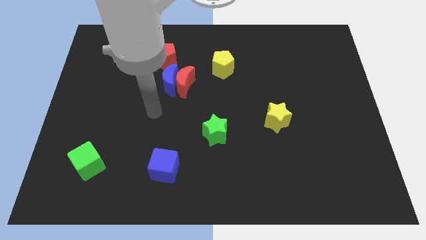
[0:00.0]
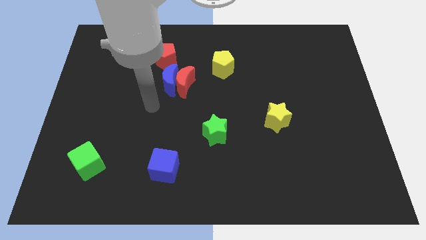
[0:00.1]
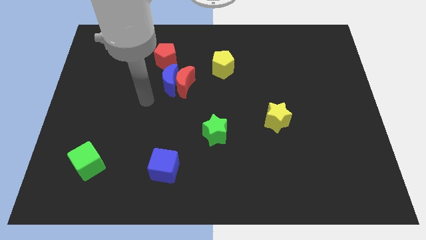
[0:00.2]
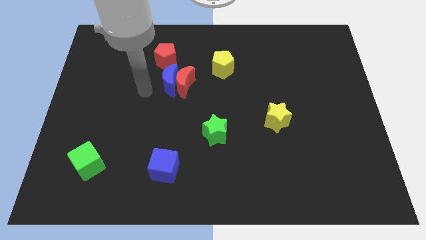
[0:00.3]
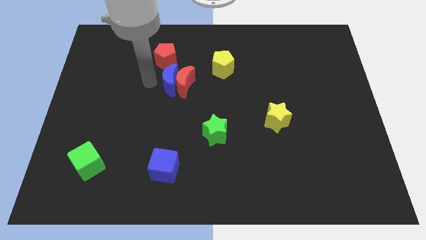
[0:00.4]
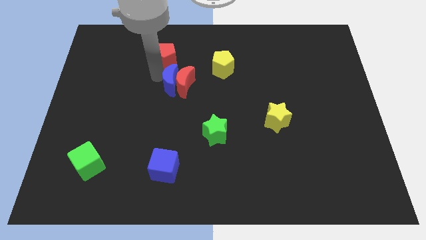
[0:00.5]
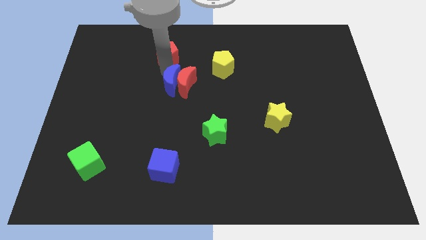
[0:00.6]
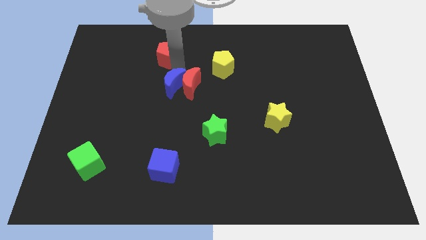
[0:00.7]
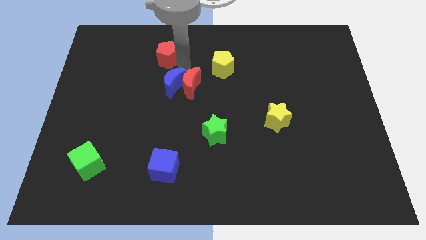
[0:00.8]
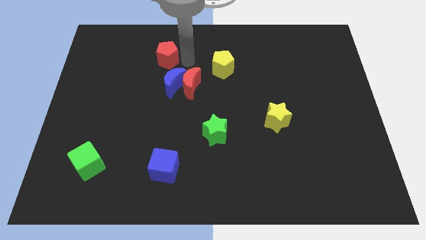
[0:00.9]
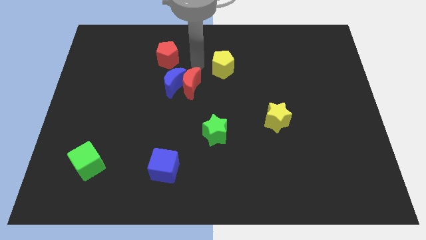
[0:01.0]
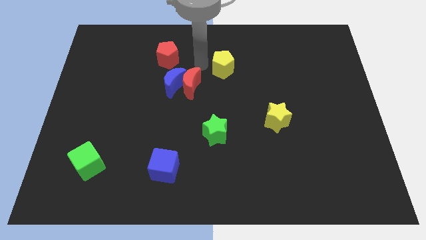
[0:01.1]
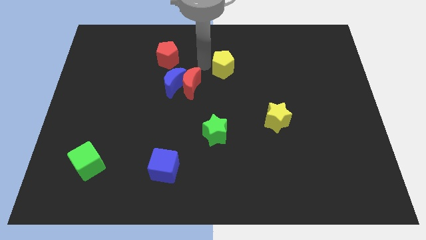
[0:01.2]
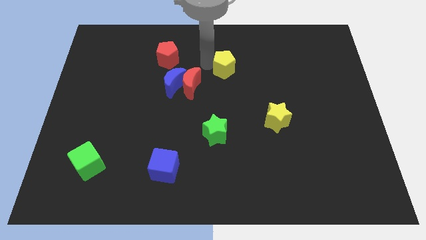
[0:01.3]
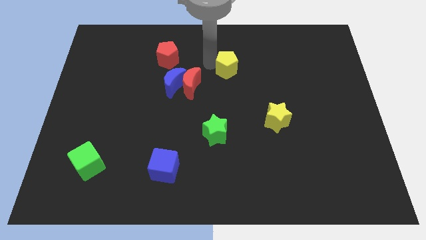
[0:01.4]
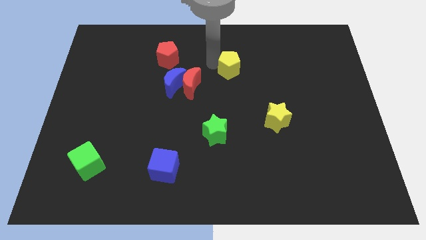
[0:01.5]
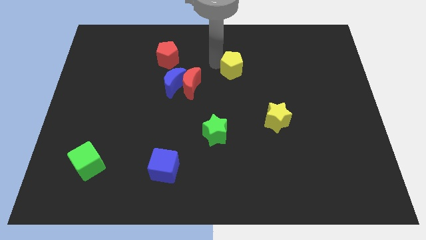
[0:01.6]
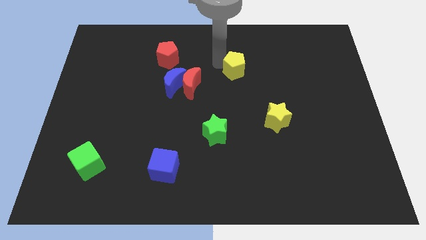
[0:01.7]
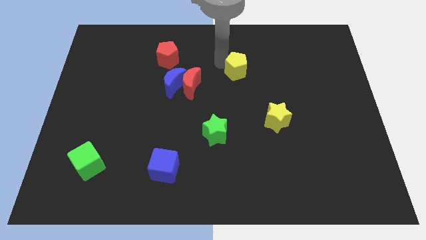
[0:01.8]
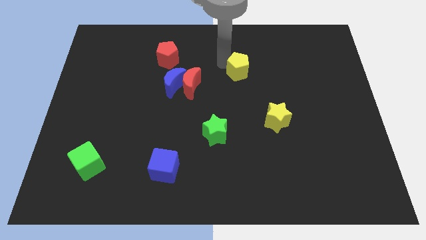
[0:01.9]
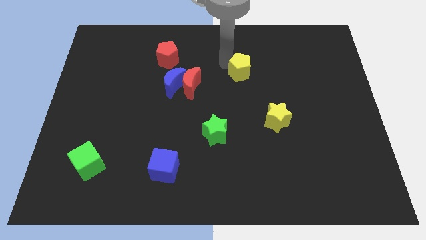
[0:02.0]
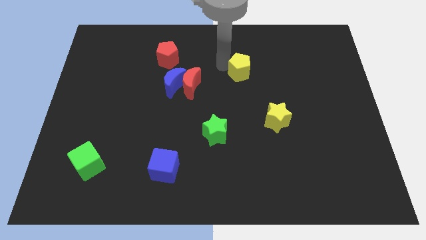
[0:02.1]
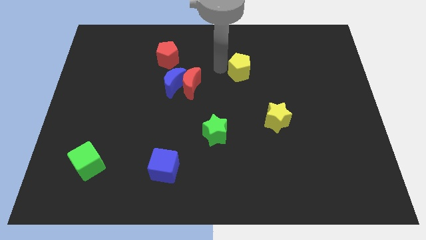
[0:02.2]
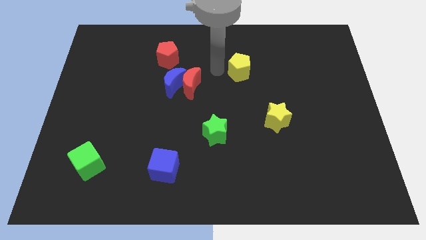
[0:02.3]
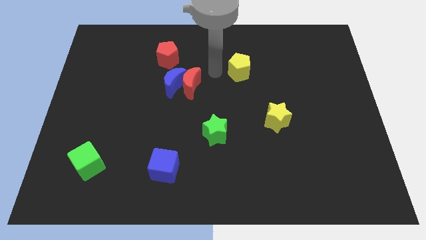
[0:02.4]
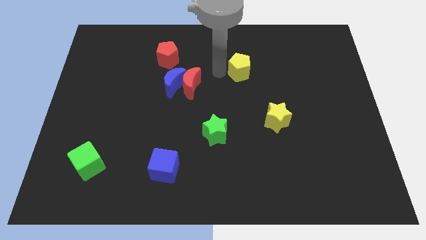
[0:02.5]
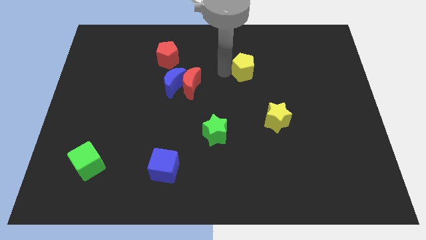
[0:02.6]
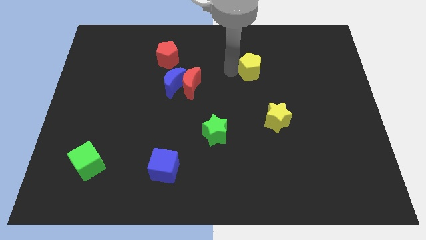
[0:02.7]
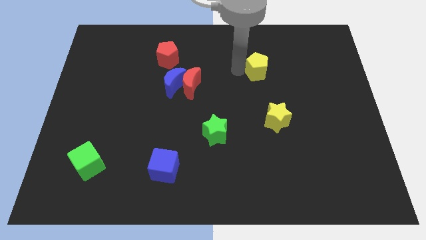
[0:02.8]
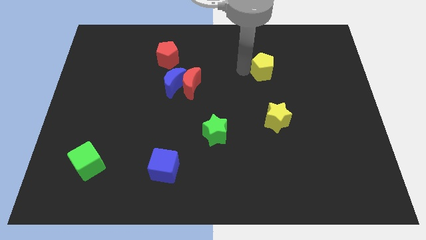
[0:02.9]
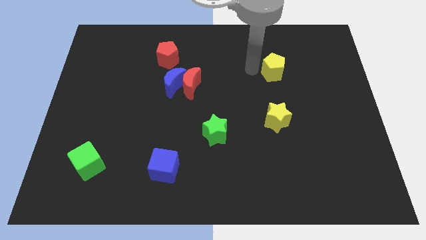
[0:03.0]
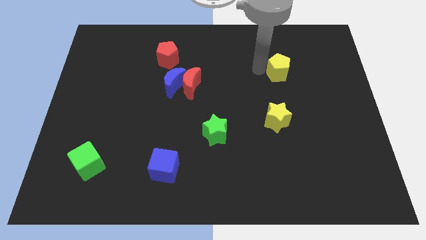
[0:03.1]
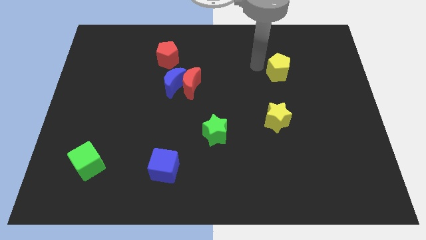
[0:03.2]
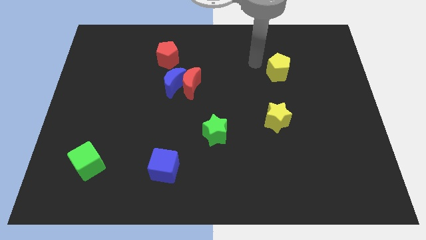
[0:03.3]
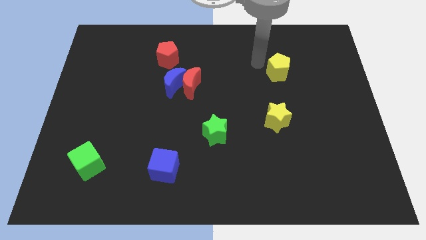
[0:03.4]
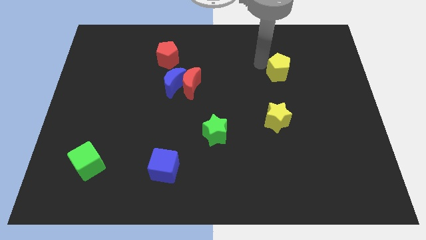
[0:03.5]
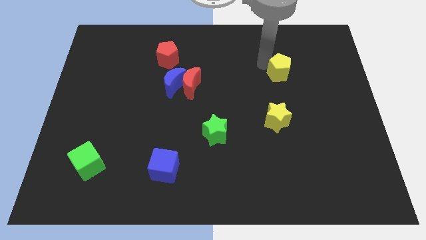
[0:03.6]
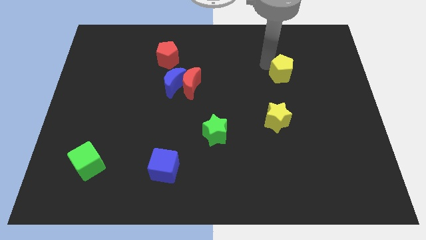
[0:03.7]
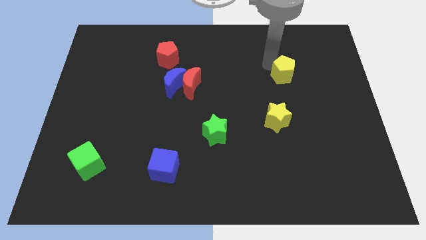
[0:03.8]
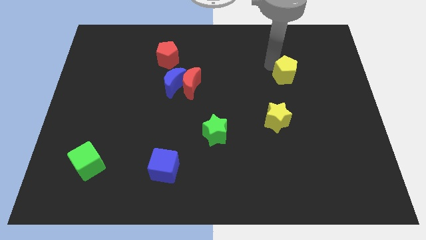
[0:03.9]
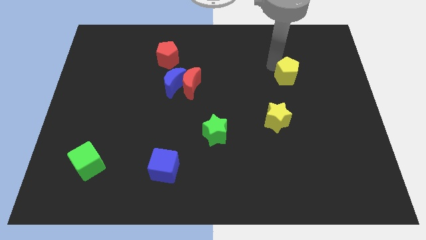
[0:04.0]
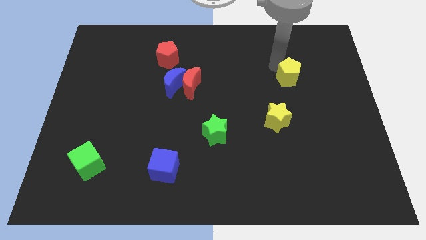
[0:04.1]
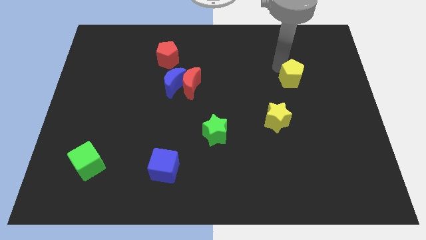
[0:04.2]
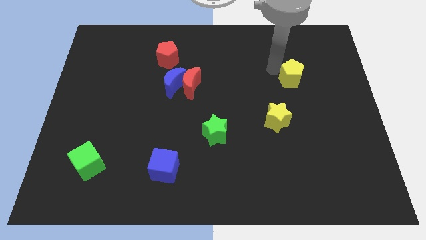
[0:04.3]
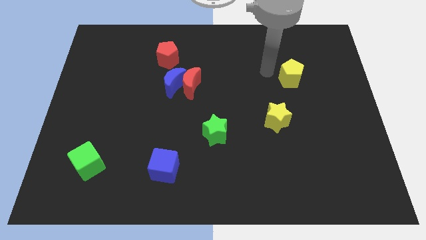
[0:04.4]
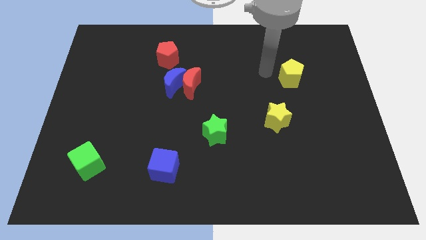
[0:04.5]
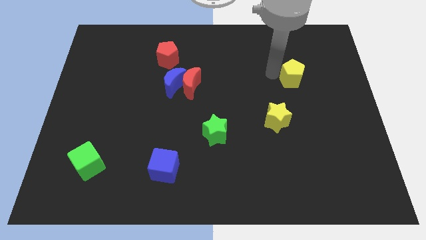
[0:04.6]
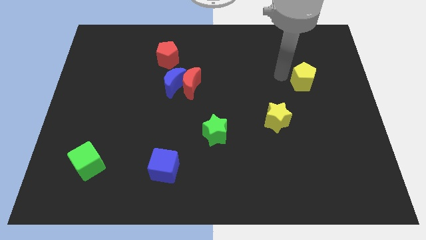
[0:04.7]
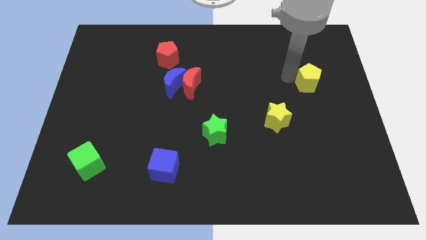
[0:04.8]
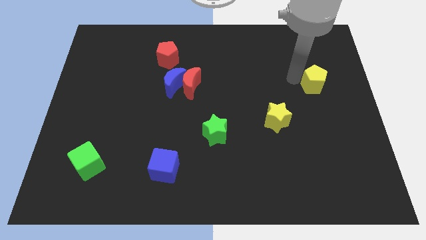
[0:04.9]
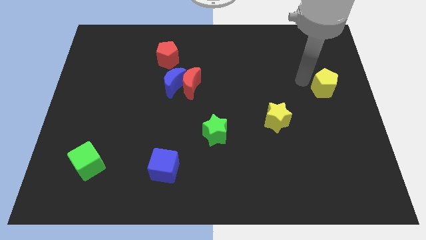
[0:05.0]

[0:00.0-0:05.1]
push the yellow pentagon to the center right
